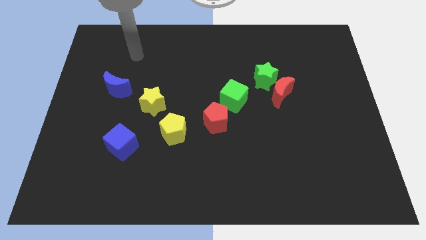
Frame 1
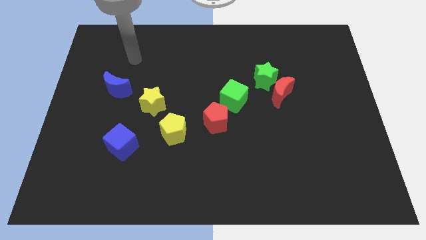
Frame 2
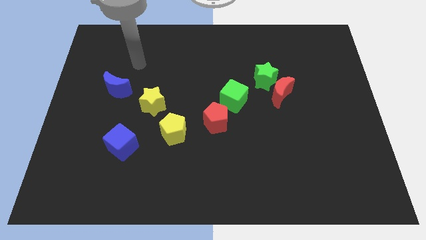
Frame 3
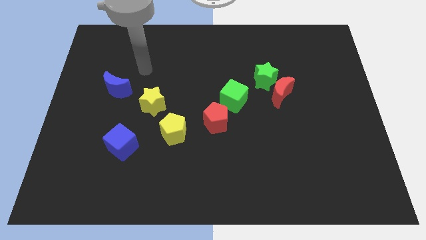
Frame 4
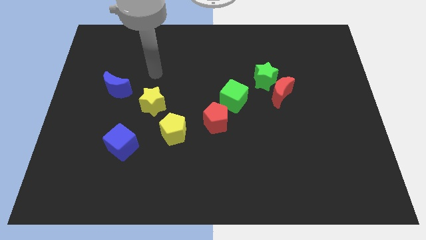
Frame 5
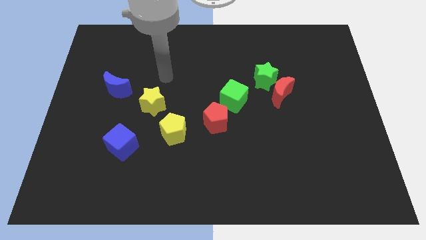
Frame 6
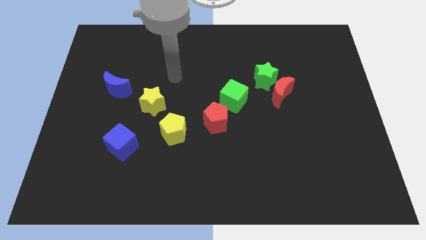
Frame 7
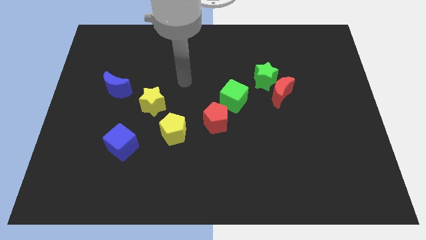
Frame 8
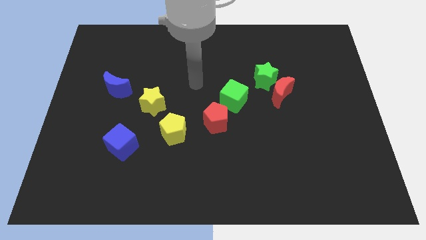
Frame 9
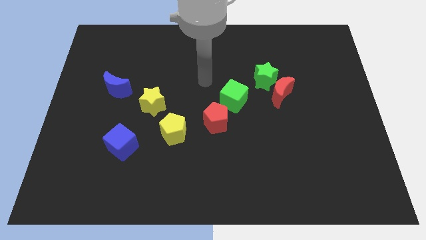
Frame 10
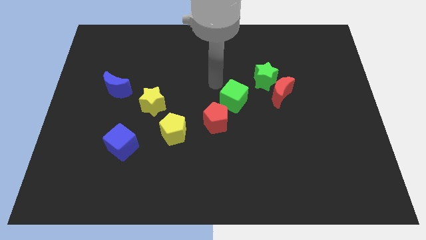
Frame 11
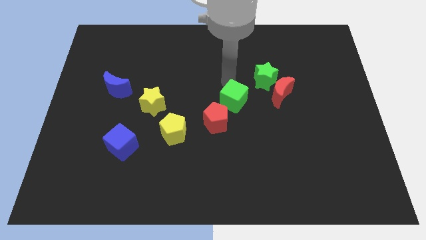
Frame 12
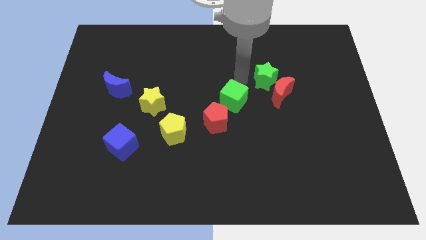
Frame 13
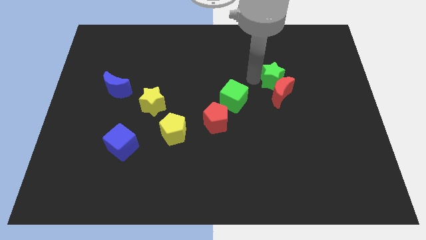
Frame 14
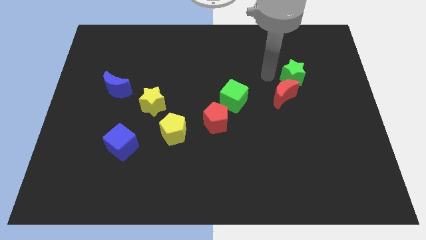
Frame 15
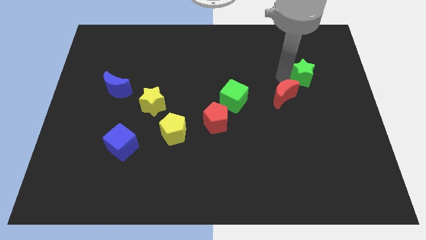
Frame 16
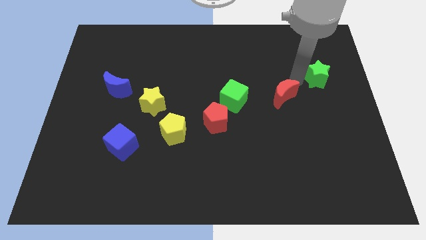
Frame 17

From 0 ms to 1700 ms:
pull the red moon apart from the green star

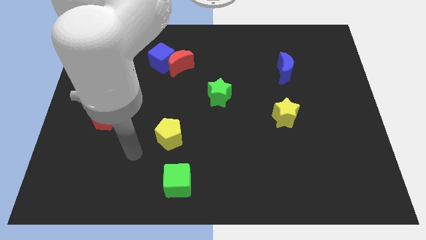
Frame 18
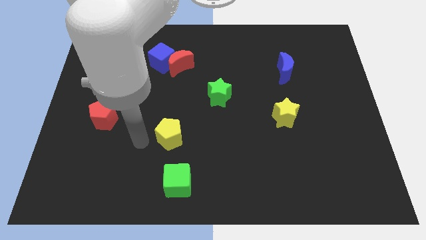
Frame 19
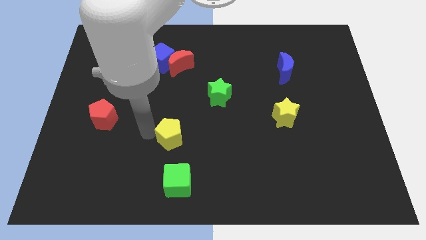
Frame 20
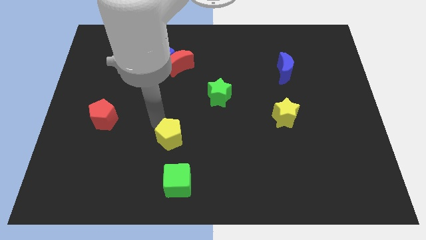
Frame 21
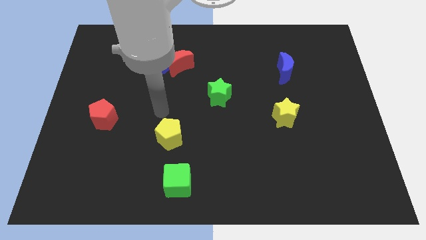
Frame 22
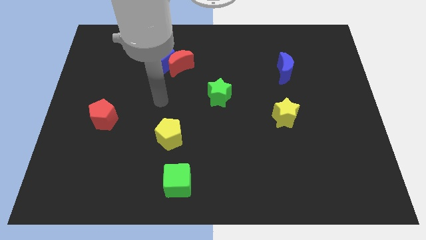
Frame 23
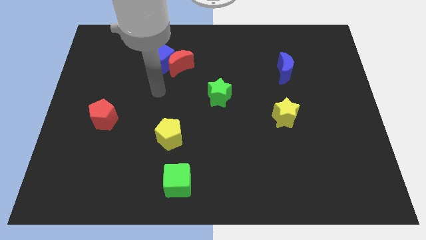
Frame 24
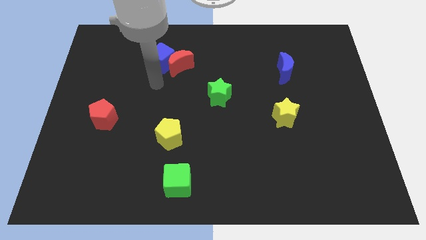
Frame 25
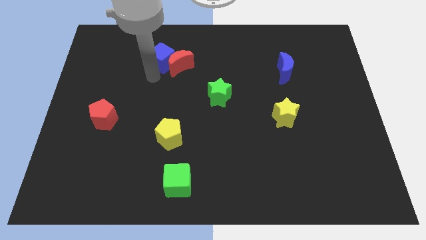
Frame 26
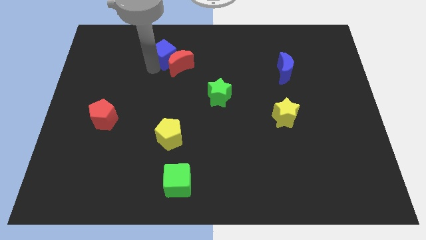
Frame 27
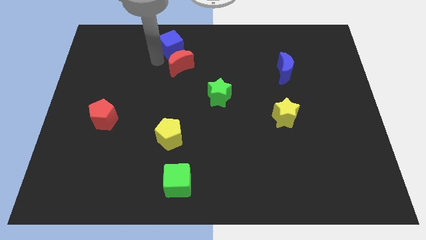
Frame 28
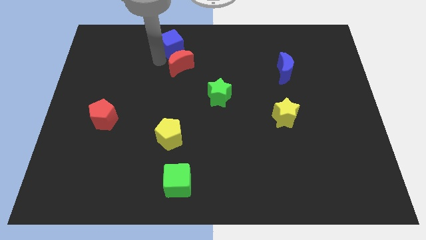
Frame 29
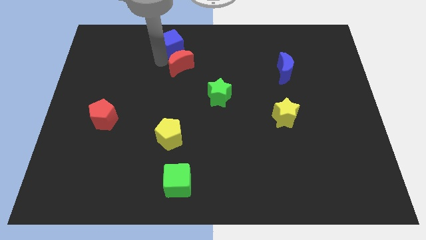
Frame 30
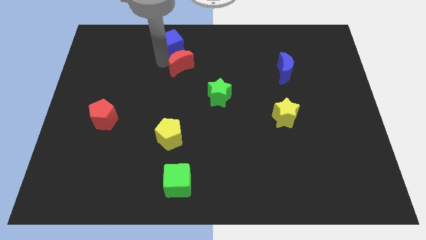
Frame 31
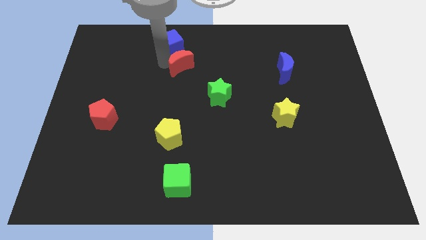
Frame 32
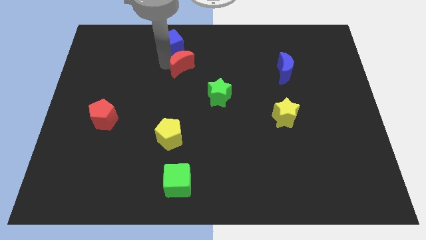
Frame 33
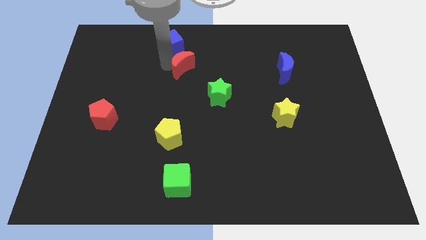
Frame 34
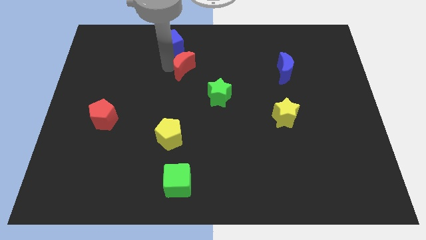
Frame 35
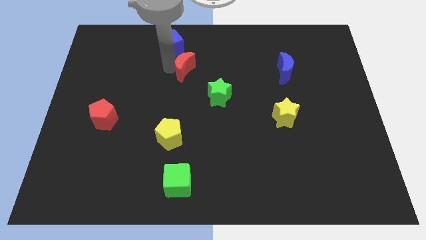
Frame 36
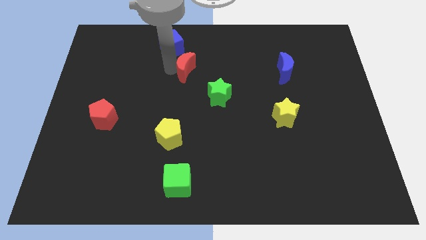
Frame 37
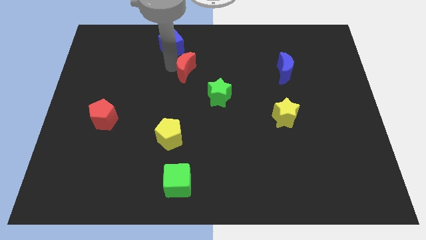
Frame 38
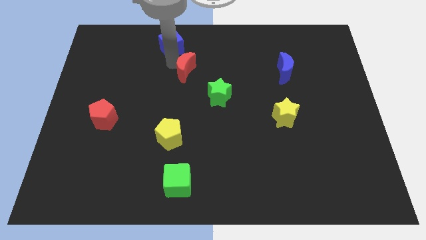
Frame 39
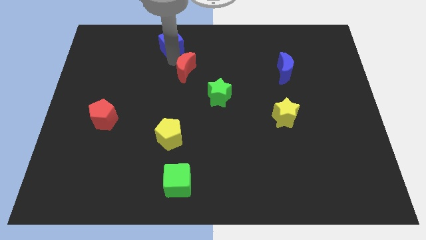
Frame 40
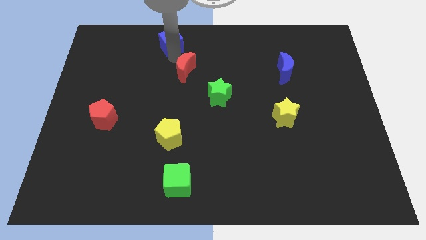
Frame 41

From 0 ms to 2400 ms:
move the red moon away from the blue cube

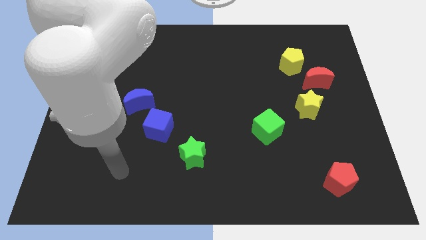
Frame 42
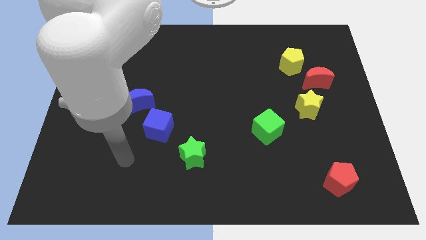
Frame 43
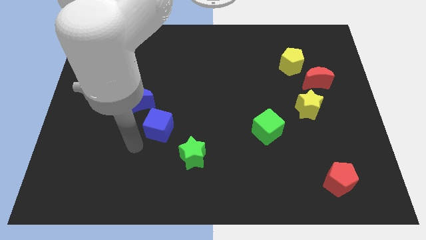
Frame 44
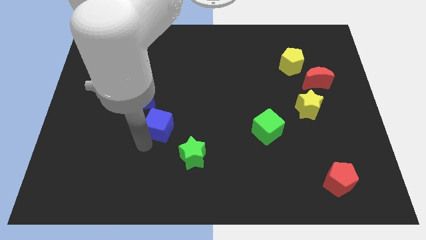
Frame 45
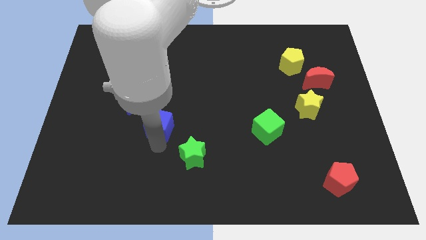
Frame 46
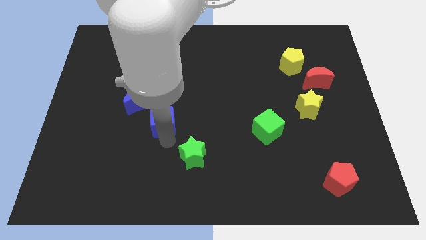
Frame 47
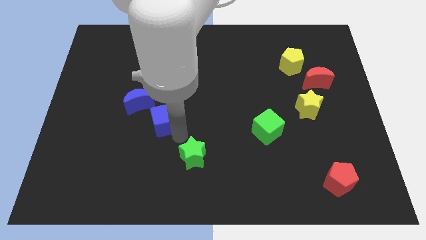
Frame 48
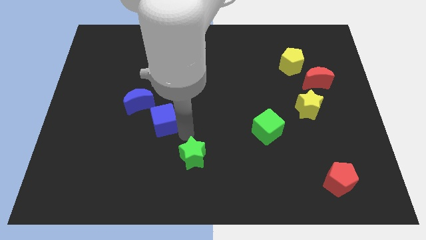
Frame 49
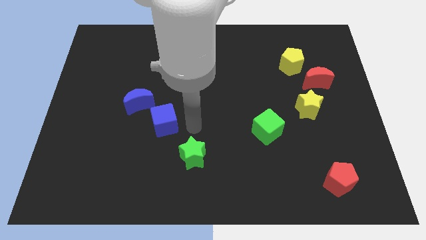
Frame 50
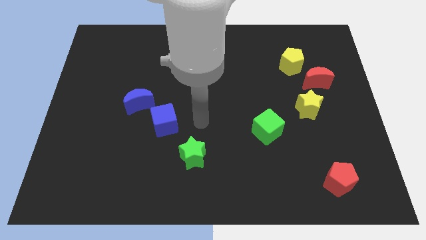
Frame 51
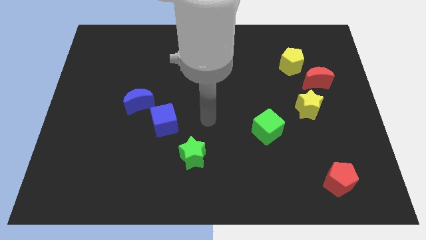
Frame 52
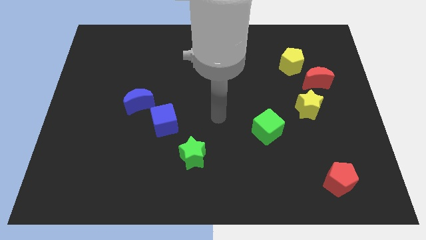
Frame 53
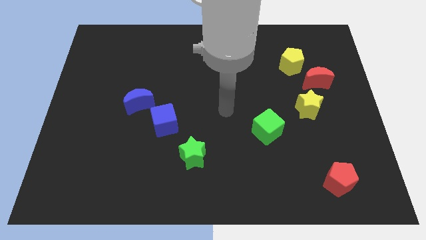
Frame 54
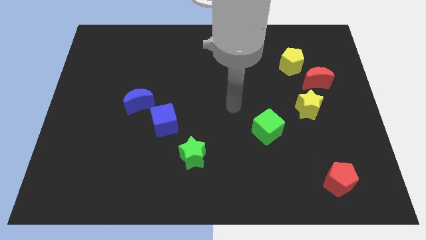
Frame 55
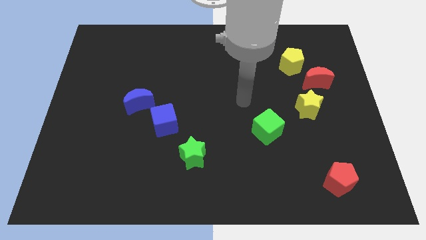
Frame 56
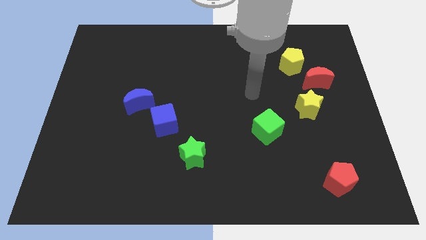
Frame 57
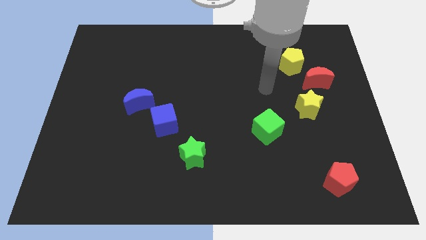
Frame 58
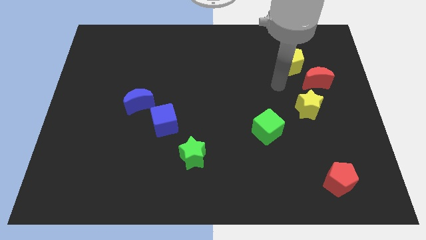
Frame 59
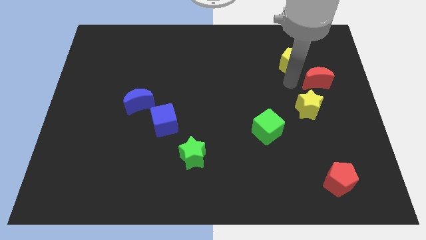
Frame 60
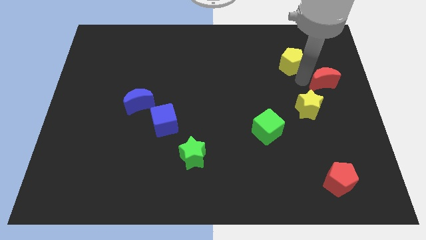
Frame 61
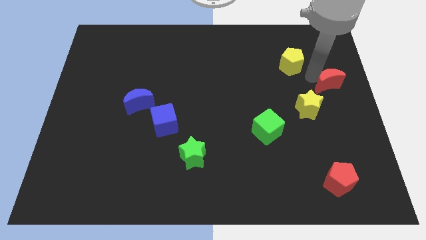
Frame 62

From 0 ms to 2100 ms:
pull the yellow pentagon apart from the red moon

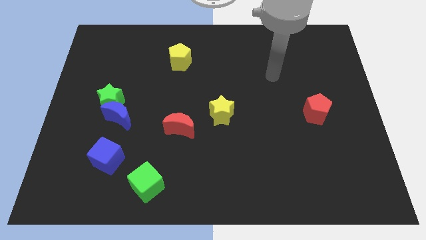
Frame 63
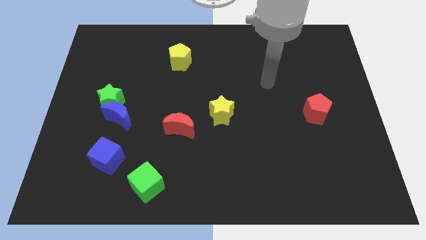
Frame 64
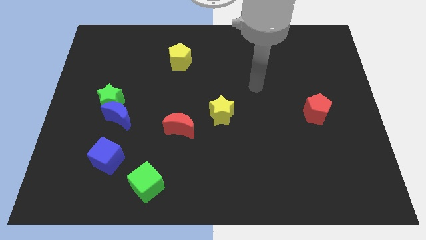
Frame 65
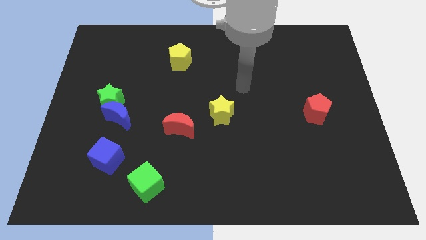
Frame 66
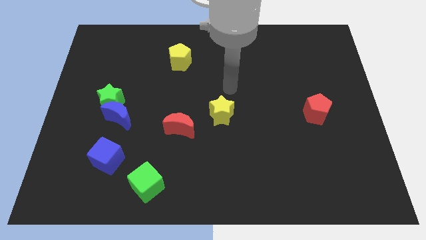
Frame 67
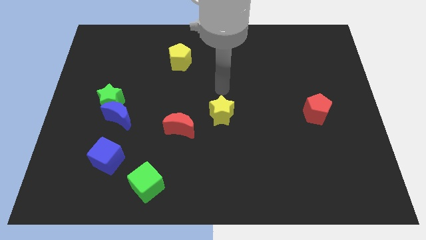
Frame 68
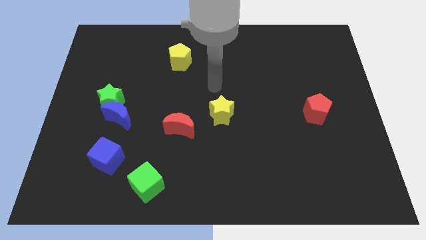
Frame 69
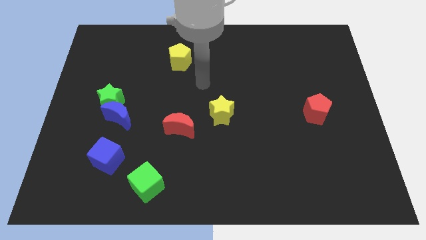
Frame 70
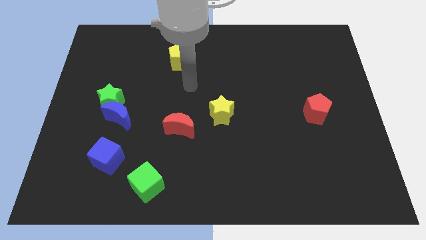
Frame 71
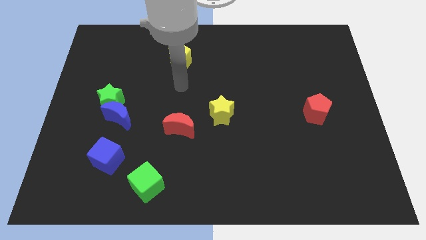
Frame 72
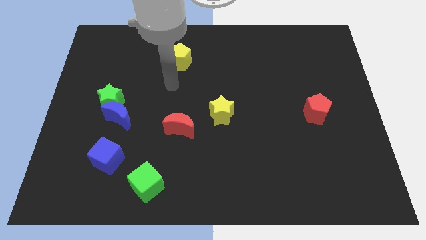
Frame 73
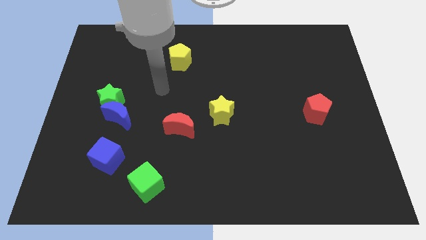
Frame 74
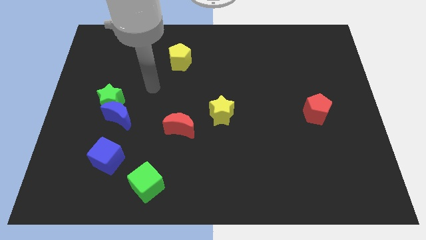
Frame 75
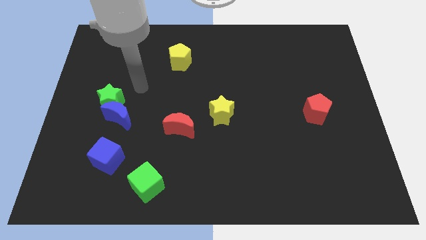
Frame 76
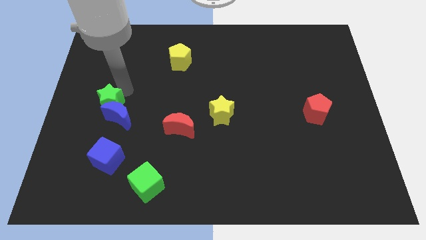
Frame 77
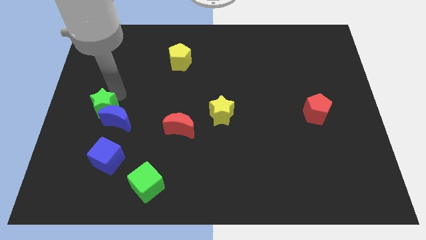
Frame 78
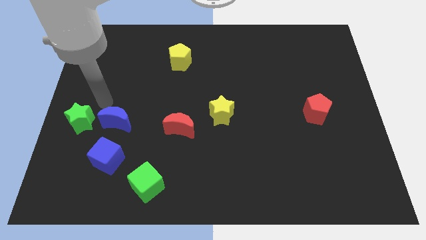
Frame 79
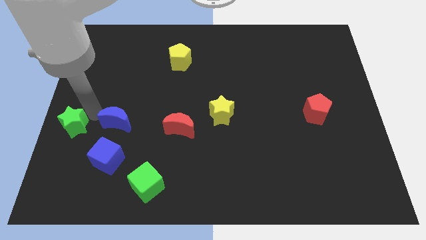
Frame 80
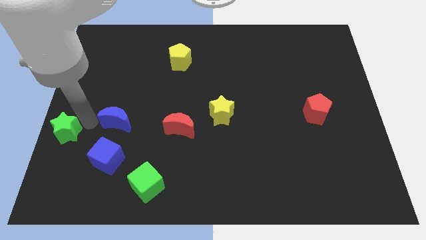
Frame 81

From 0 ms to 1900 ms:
pull the blue moon apart from the green star

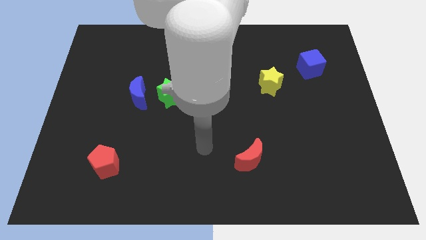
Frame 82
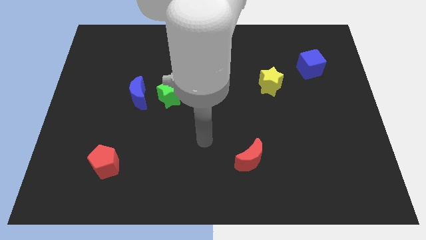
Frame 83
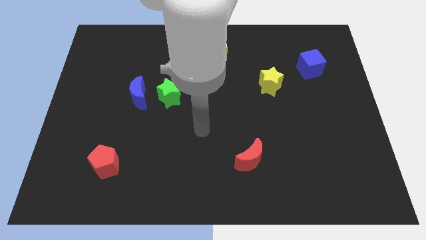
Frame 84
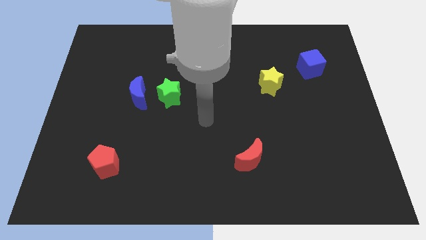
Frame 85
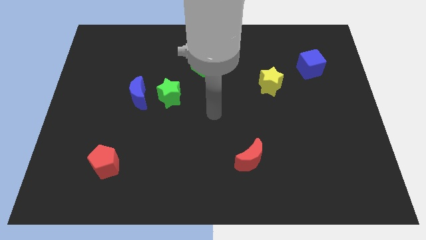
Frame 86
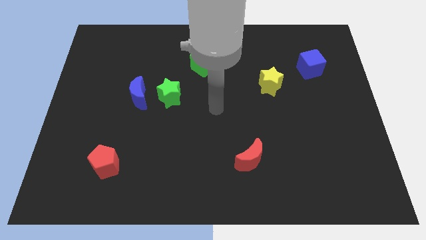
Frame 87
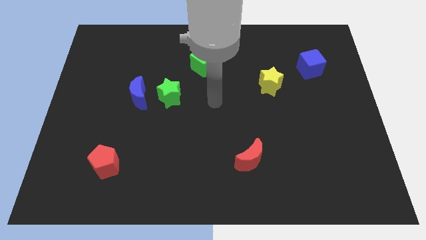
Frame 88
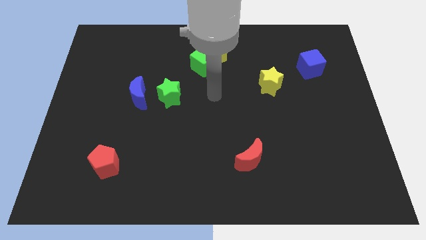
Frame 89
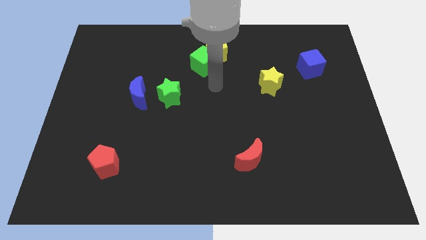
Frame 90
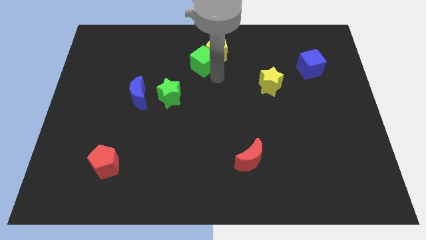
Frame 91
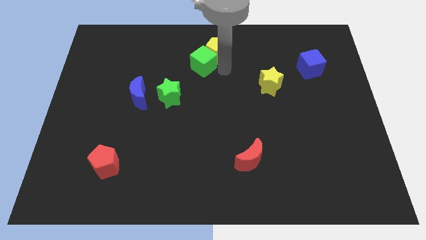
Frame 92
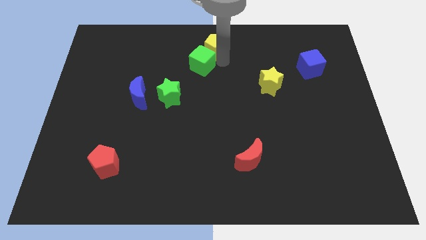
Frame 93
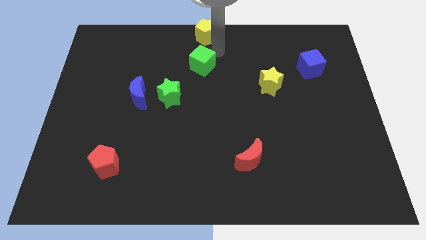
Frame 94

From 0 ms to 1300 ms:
move the green cube away from the yellow pentagon
